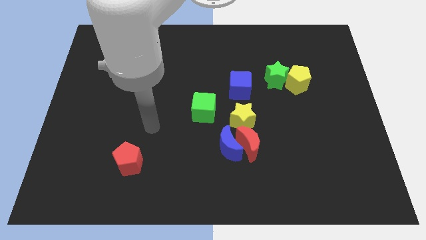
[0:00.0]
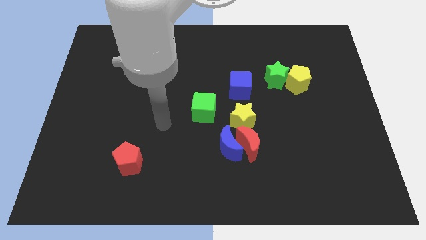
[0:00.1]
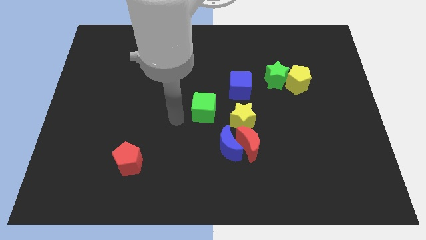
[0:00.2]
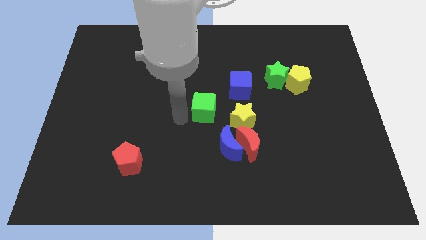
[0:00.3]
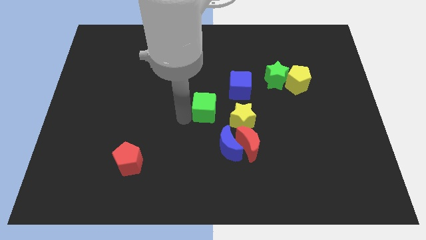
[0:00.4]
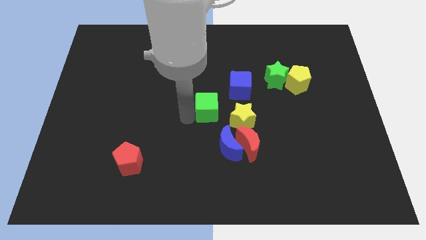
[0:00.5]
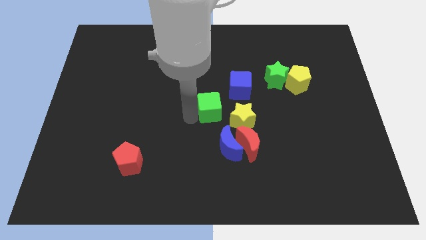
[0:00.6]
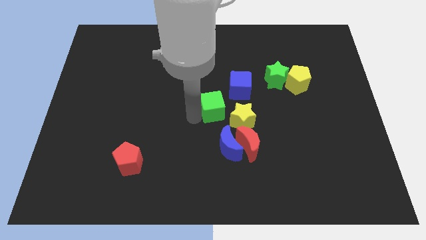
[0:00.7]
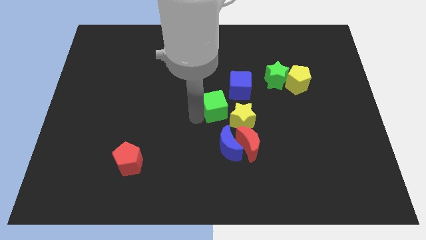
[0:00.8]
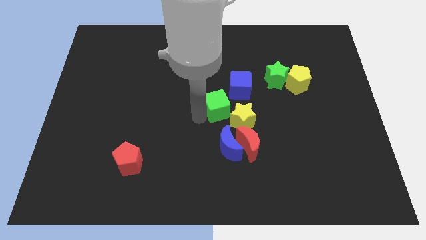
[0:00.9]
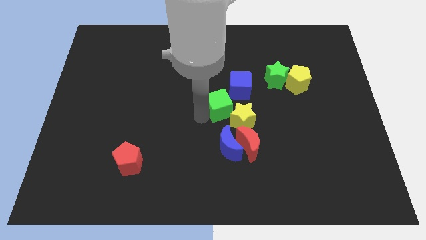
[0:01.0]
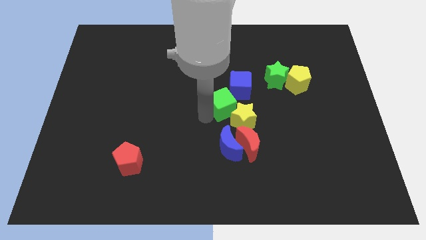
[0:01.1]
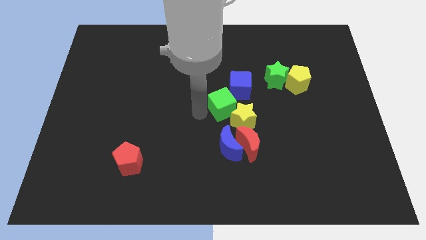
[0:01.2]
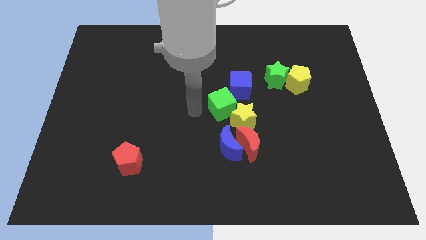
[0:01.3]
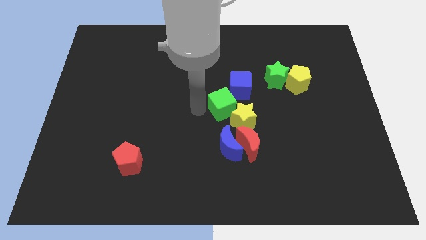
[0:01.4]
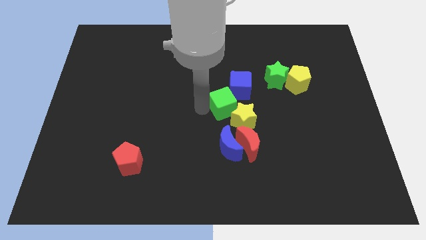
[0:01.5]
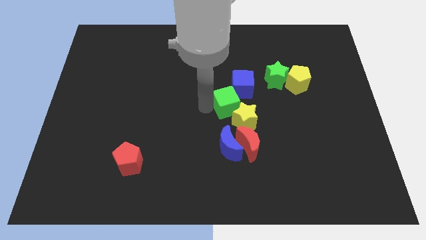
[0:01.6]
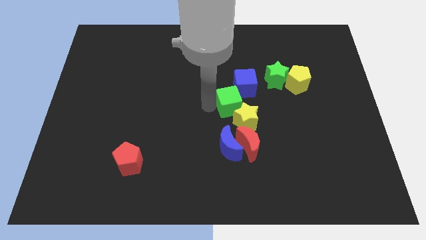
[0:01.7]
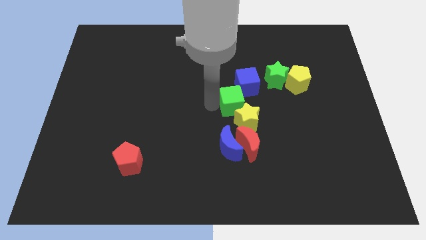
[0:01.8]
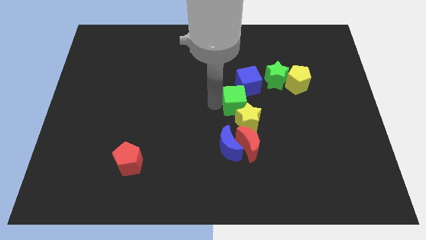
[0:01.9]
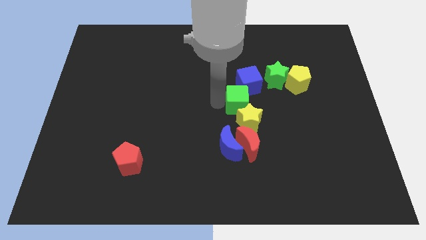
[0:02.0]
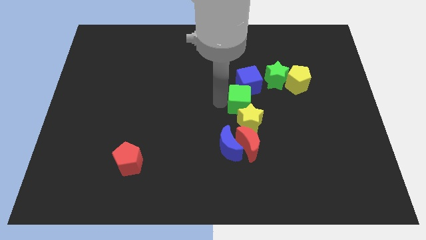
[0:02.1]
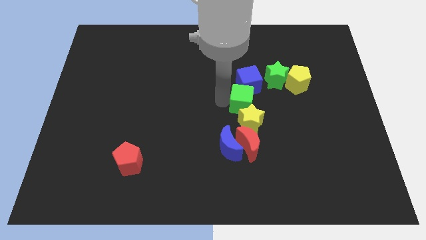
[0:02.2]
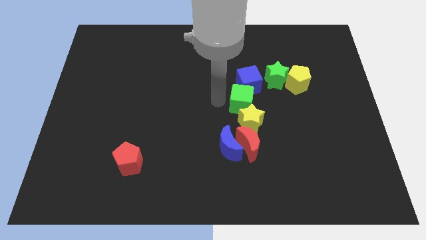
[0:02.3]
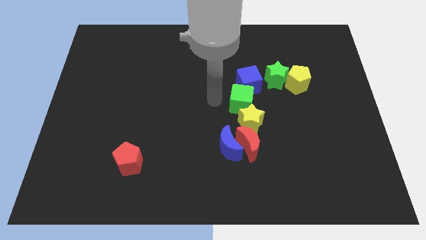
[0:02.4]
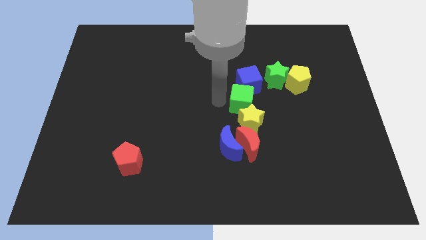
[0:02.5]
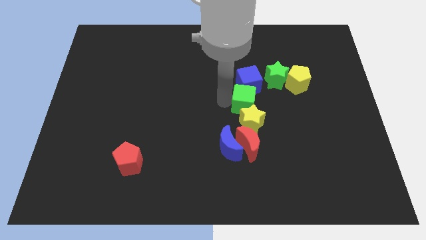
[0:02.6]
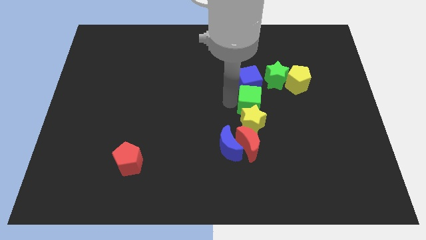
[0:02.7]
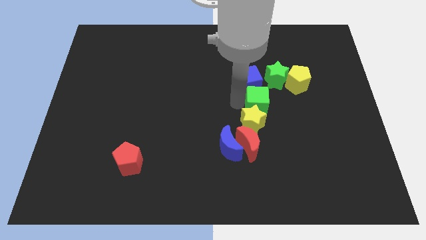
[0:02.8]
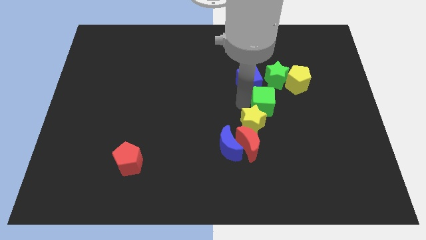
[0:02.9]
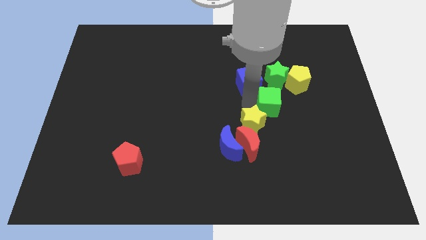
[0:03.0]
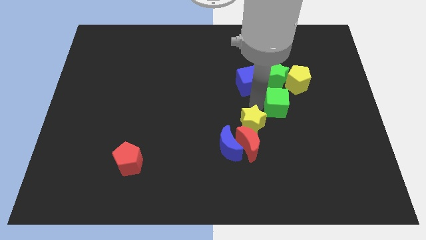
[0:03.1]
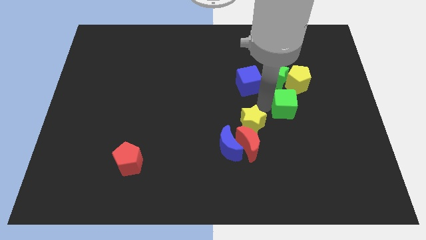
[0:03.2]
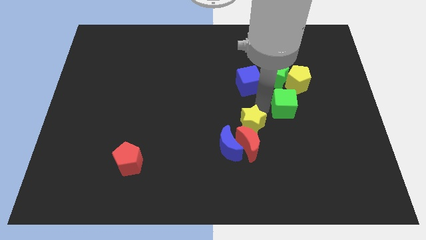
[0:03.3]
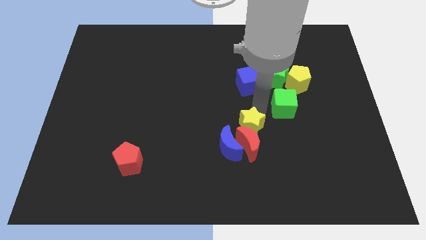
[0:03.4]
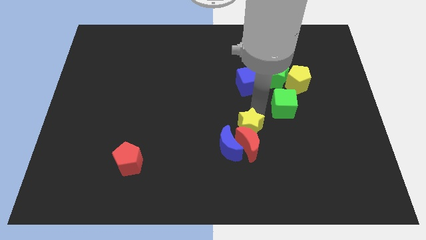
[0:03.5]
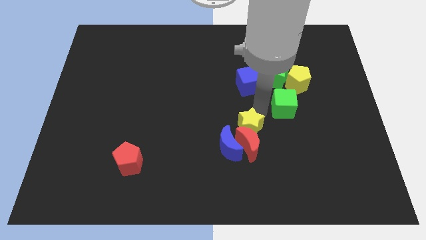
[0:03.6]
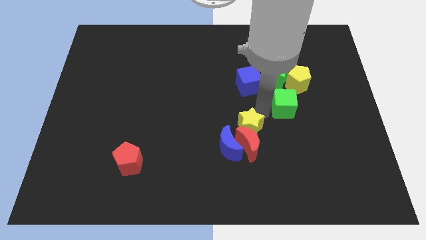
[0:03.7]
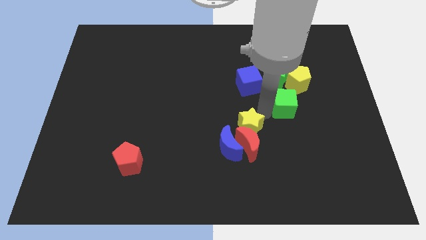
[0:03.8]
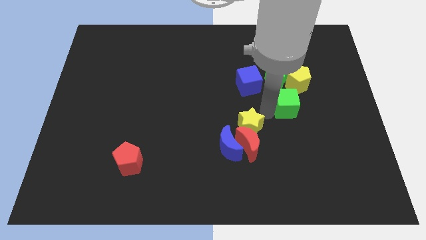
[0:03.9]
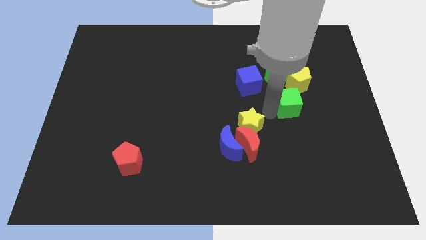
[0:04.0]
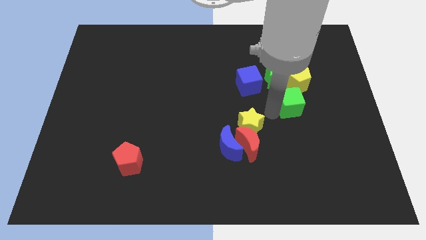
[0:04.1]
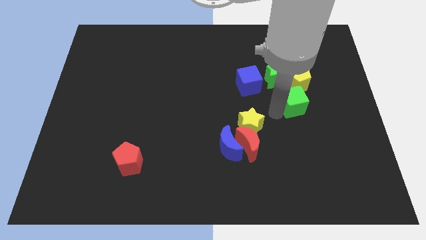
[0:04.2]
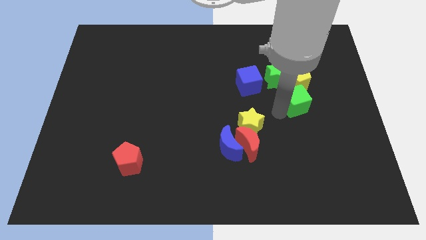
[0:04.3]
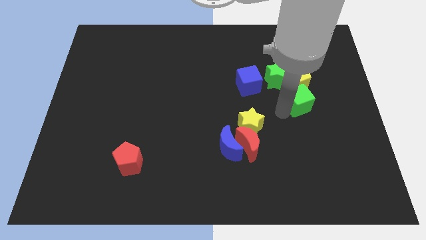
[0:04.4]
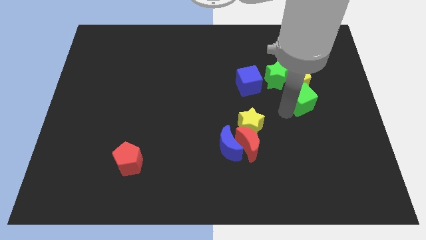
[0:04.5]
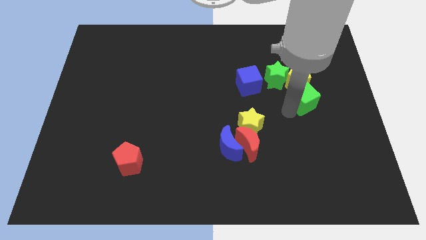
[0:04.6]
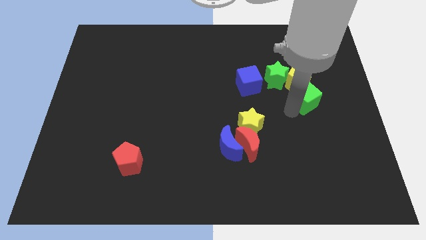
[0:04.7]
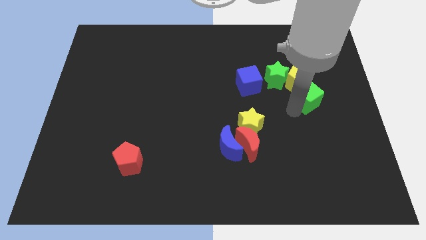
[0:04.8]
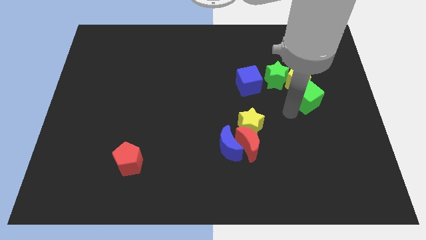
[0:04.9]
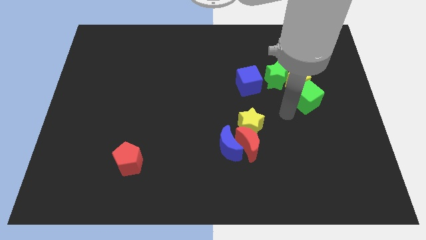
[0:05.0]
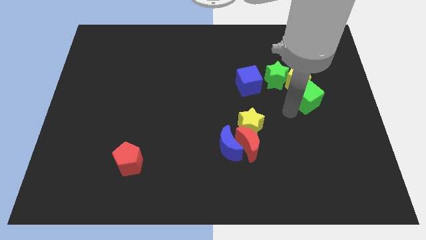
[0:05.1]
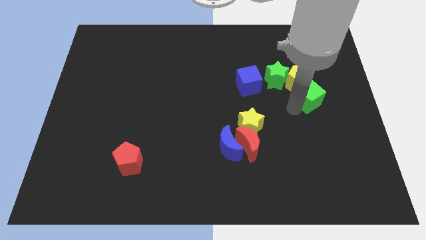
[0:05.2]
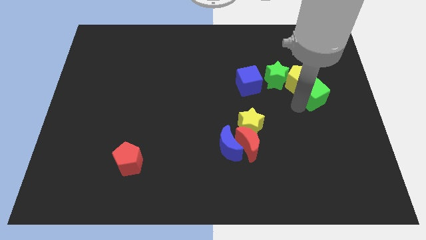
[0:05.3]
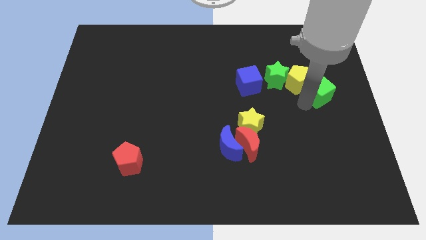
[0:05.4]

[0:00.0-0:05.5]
move the green cube to the right side of the green star

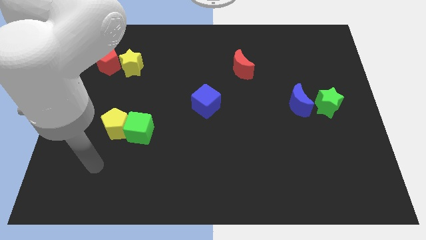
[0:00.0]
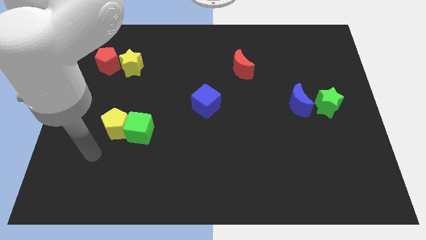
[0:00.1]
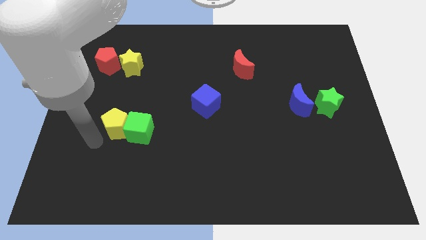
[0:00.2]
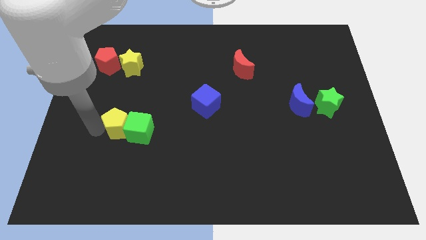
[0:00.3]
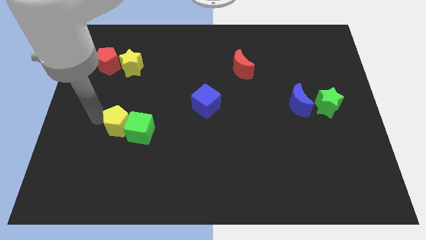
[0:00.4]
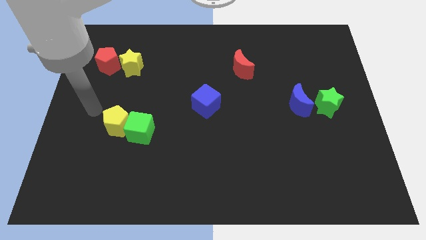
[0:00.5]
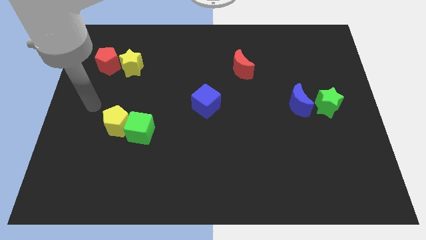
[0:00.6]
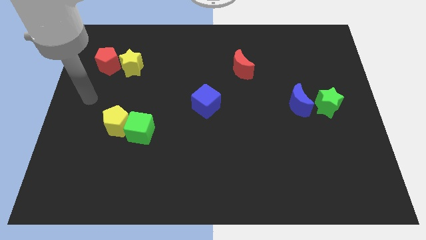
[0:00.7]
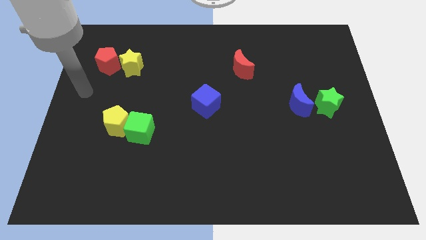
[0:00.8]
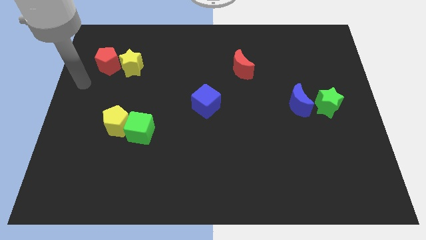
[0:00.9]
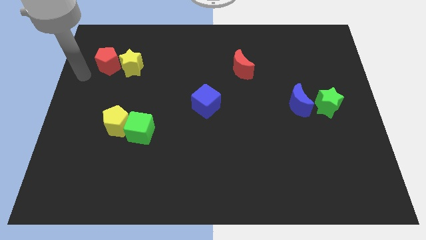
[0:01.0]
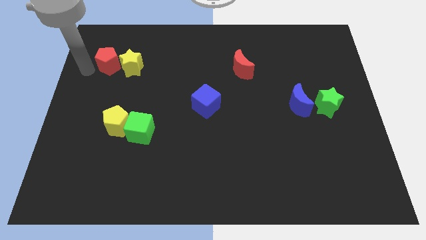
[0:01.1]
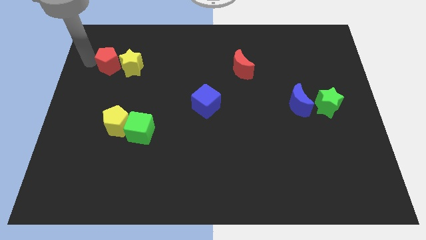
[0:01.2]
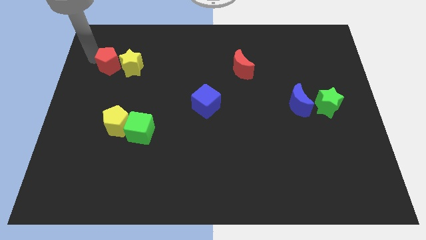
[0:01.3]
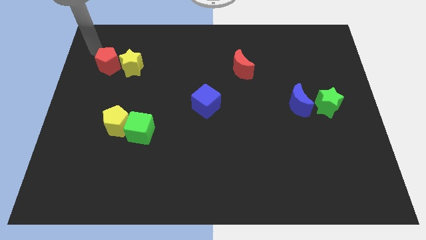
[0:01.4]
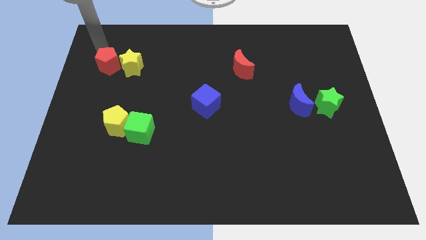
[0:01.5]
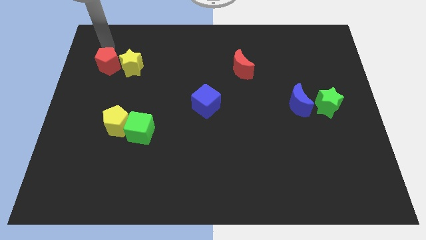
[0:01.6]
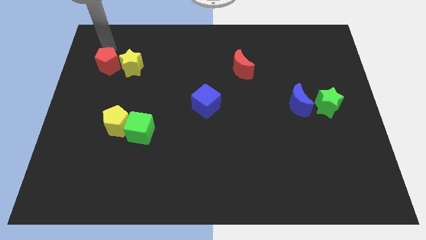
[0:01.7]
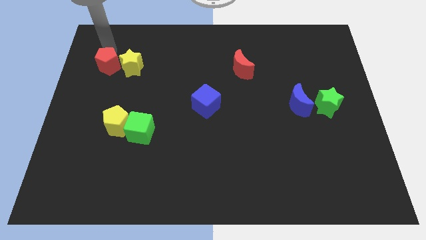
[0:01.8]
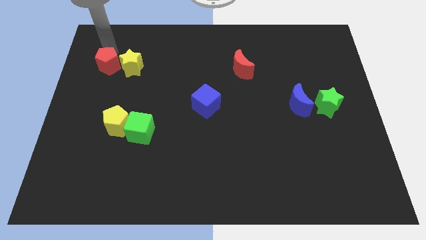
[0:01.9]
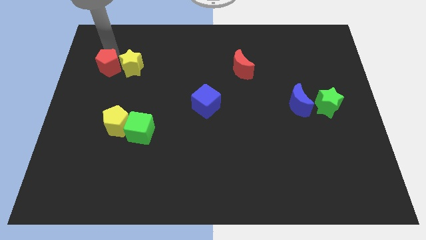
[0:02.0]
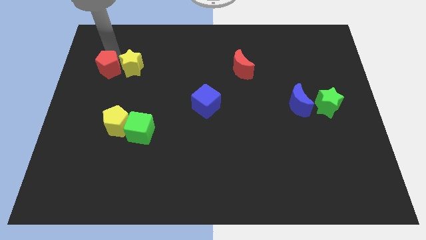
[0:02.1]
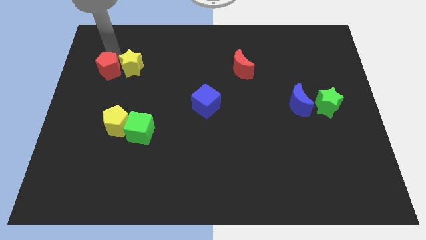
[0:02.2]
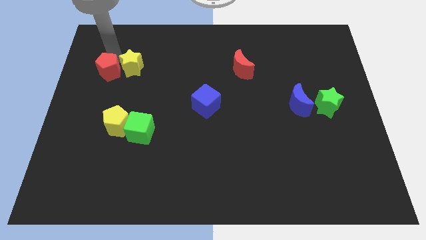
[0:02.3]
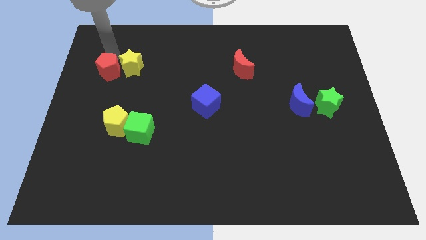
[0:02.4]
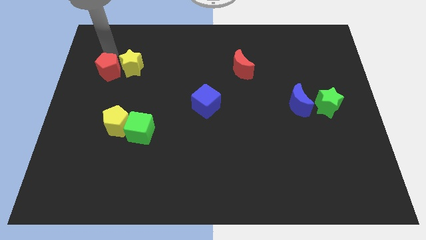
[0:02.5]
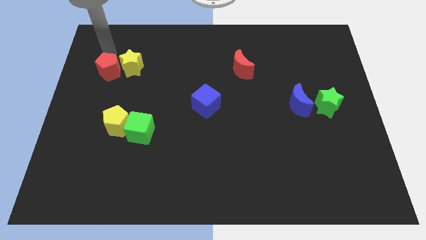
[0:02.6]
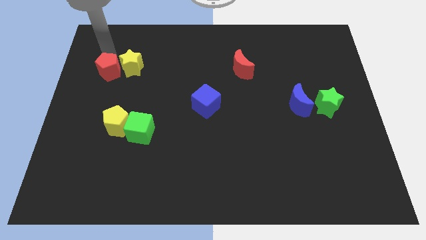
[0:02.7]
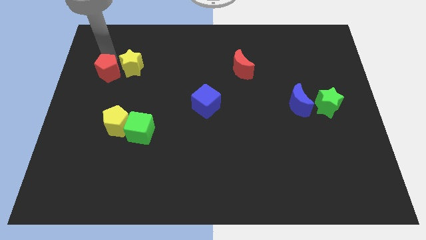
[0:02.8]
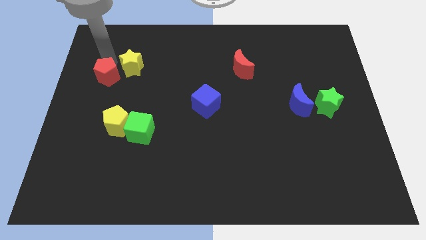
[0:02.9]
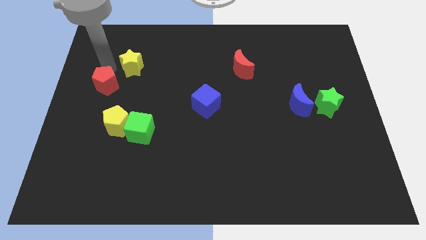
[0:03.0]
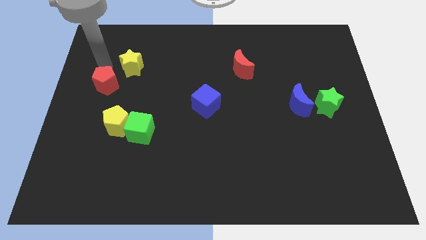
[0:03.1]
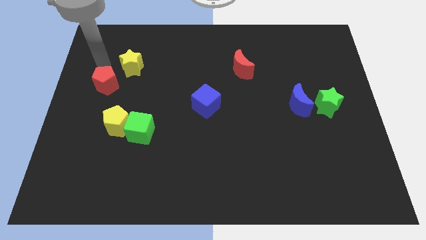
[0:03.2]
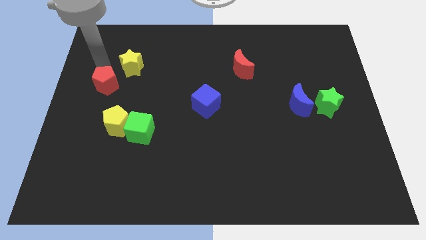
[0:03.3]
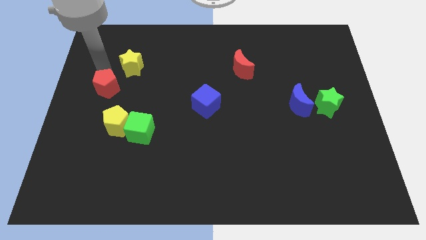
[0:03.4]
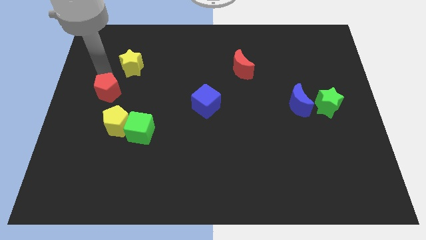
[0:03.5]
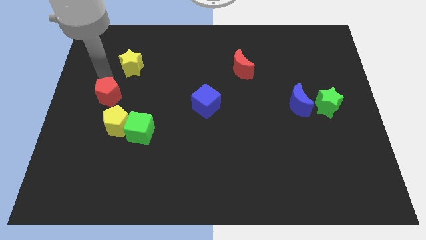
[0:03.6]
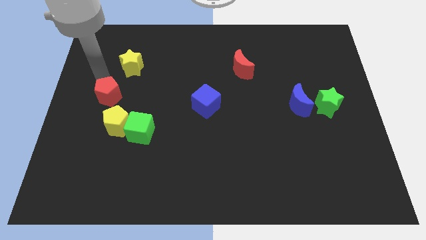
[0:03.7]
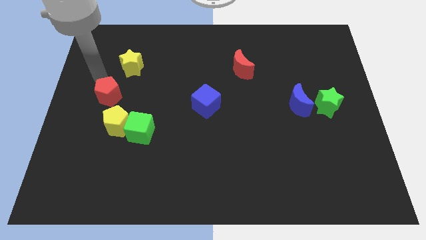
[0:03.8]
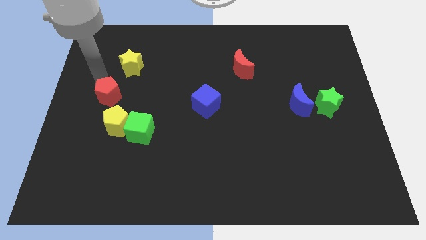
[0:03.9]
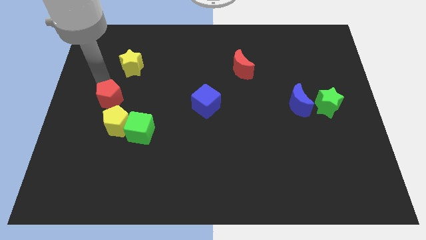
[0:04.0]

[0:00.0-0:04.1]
move the red pentagon to the top left side of the green cube
